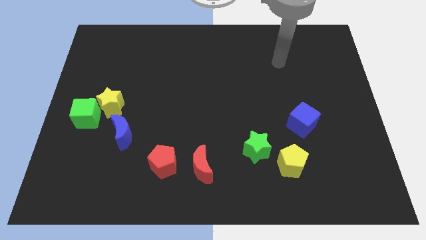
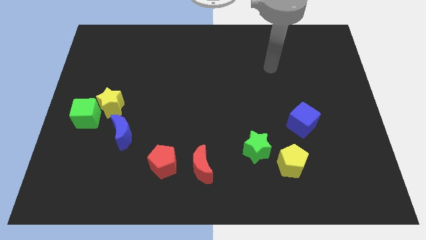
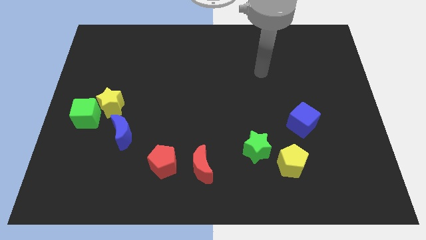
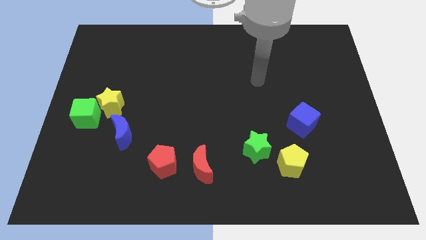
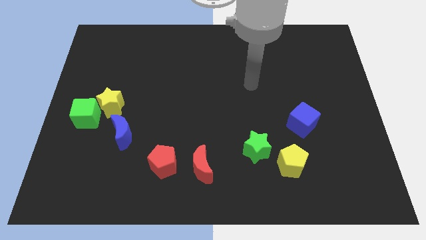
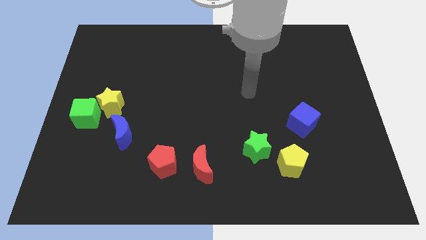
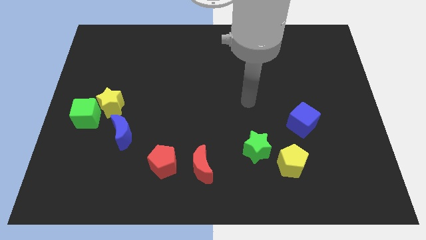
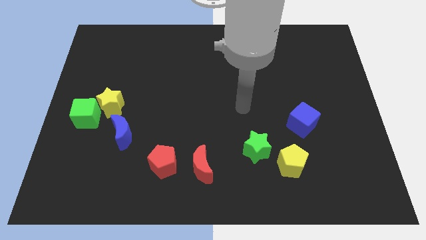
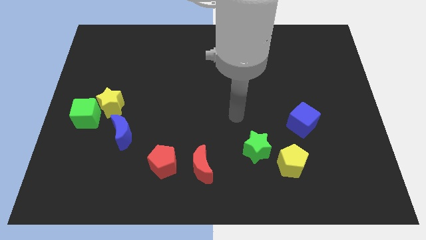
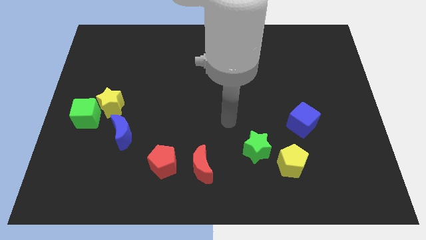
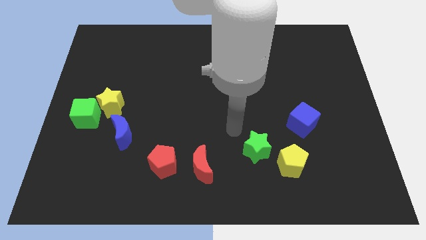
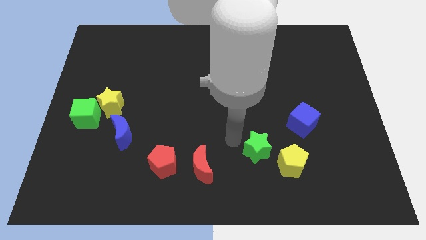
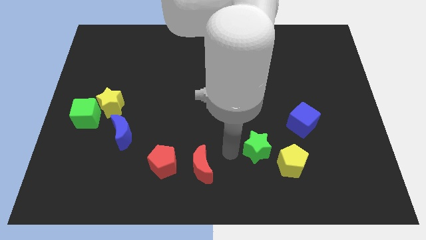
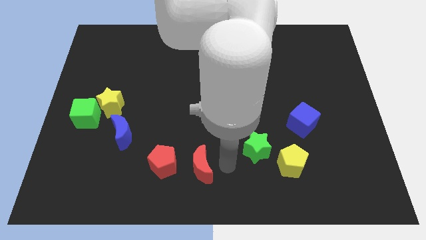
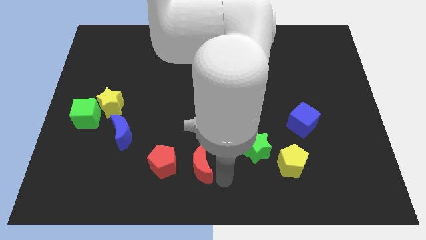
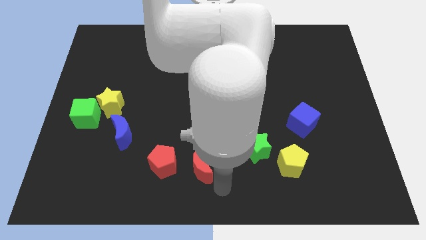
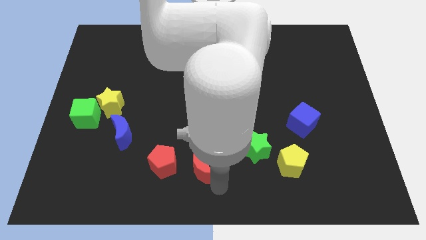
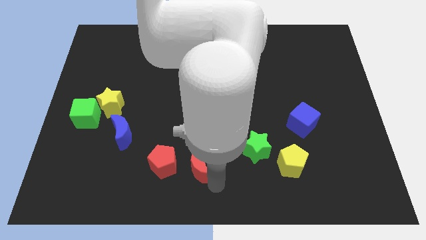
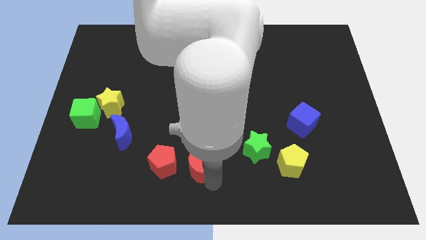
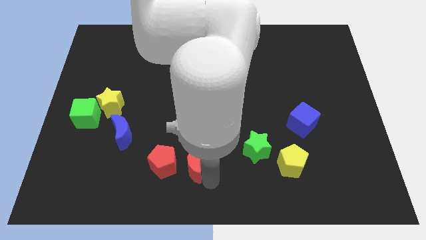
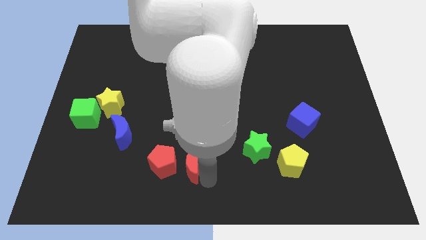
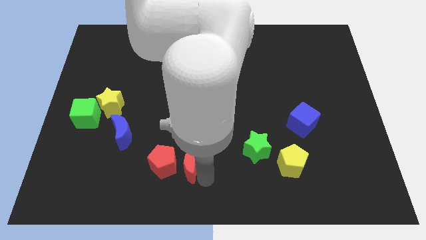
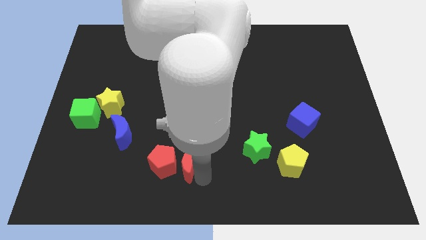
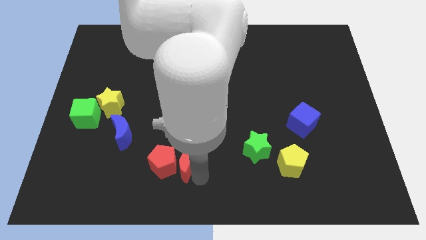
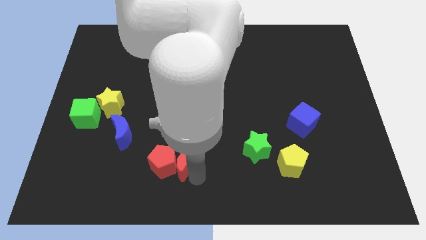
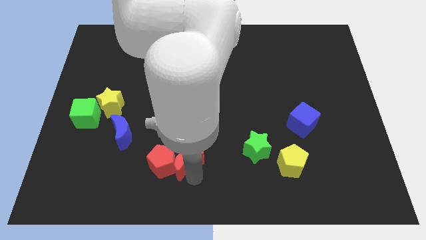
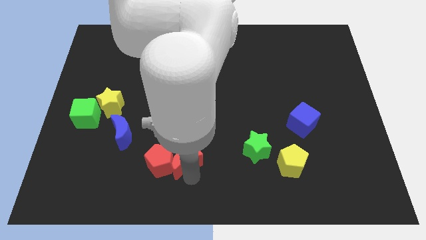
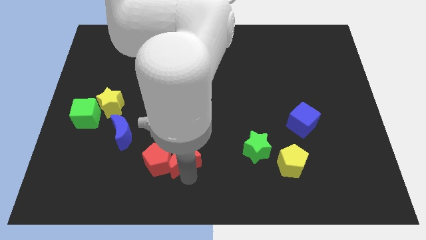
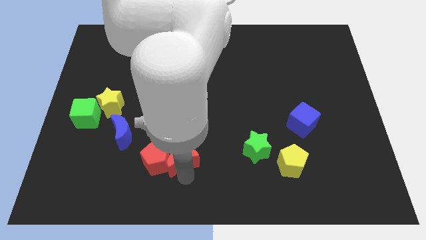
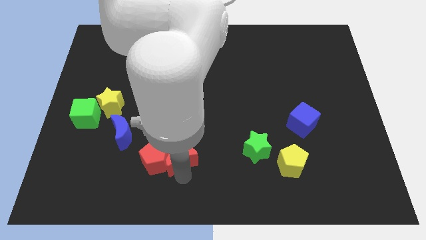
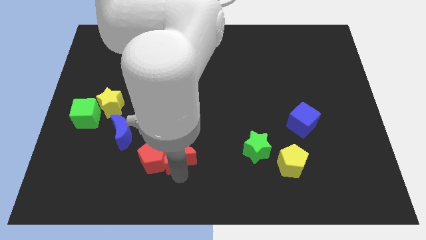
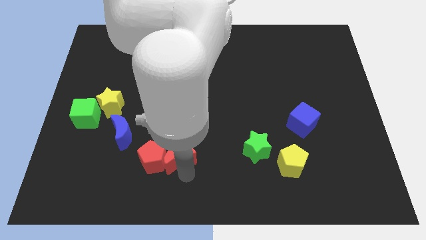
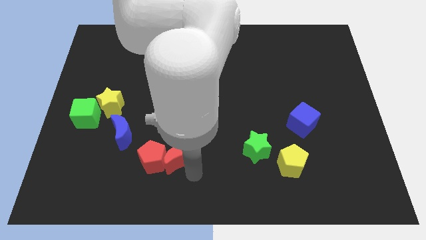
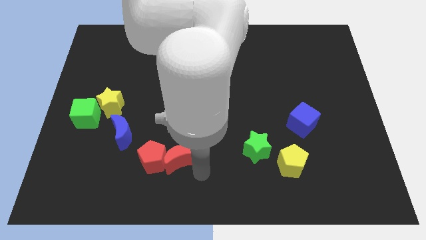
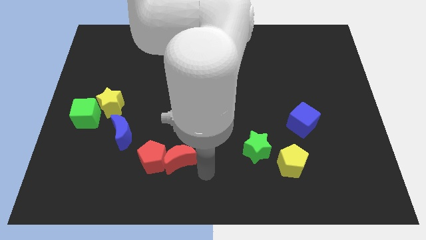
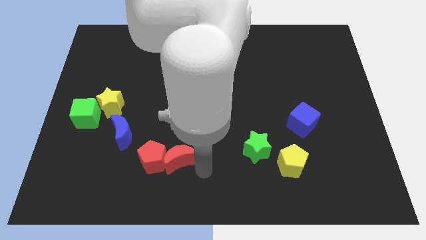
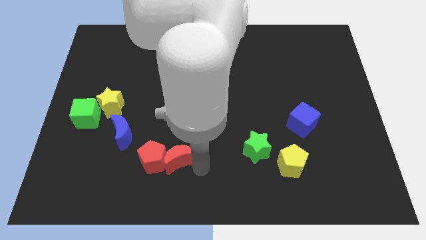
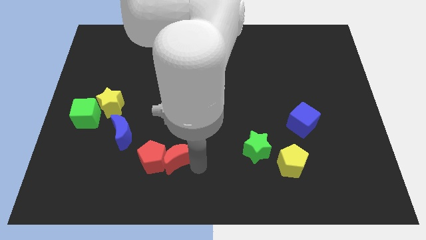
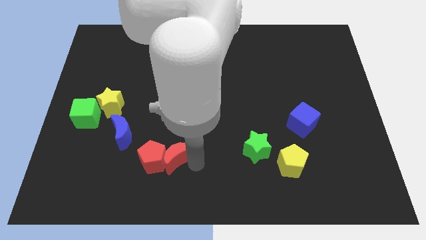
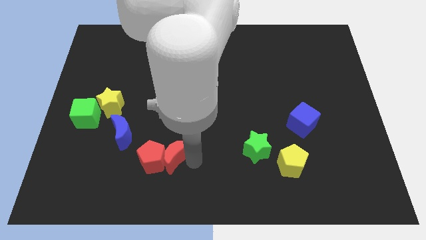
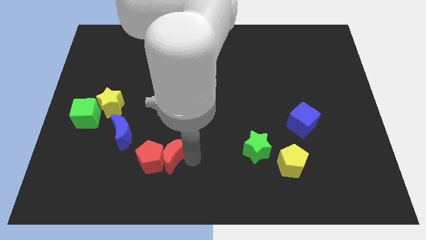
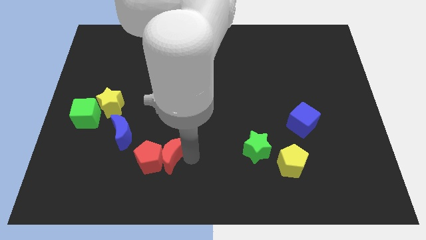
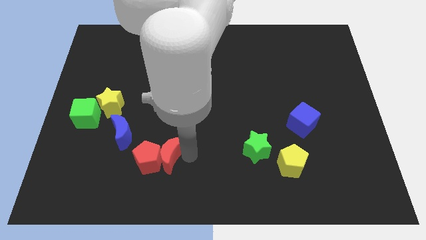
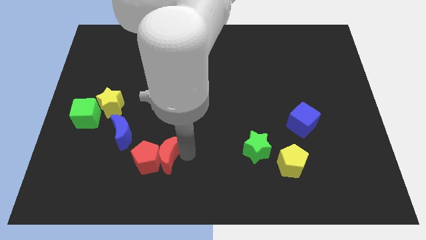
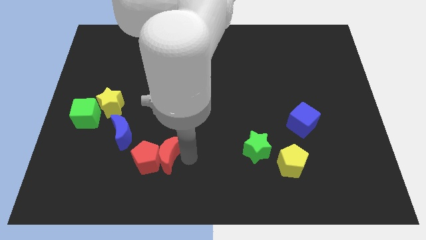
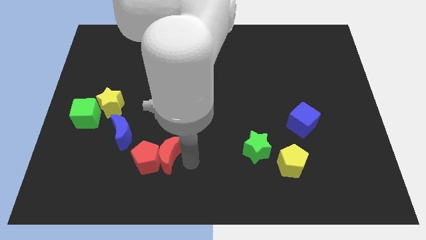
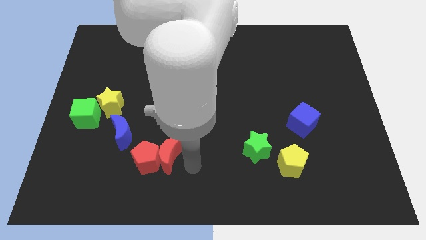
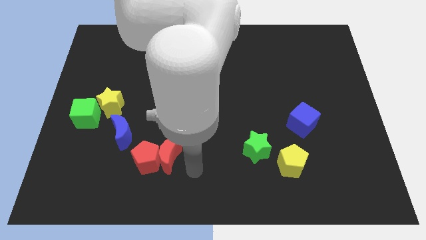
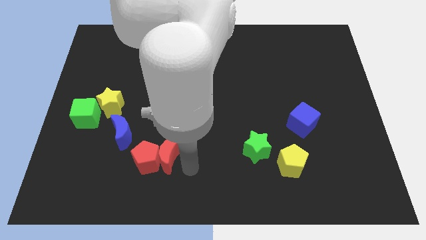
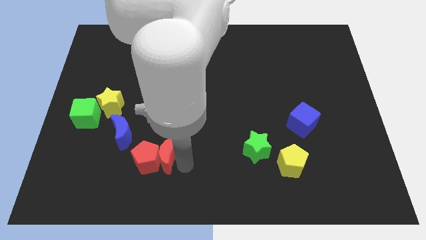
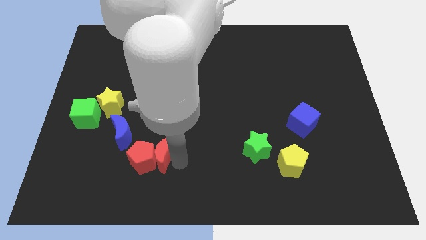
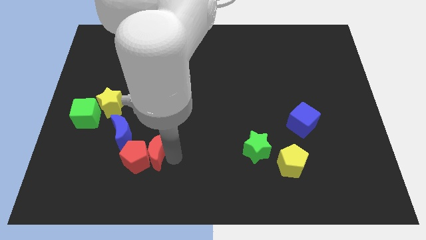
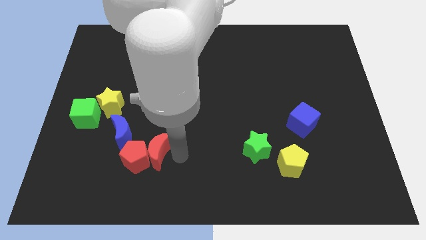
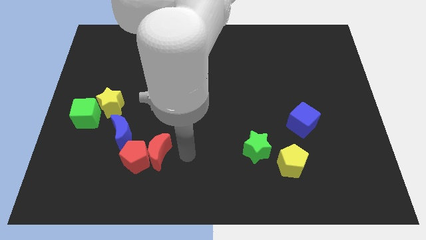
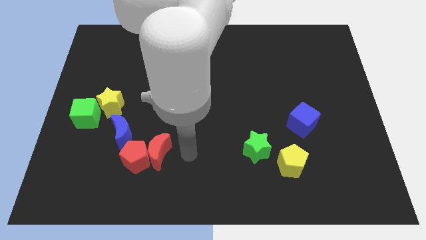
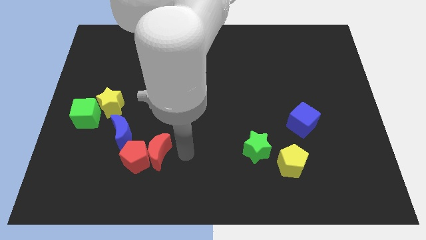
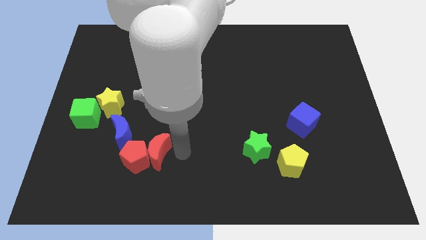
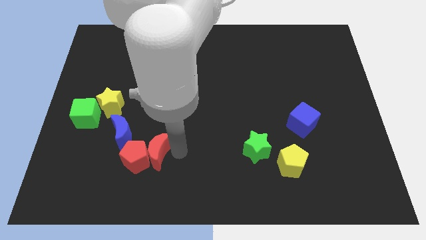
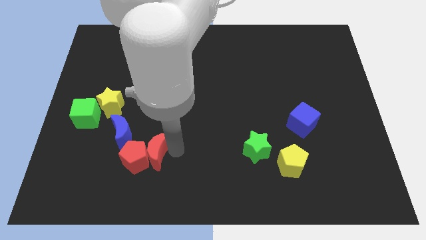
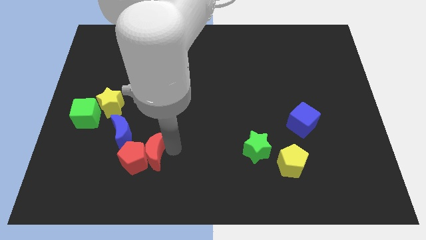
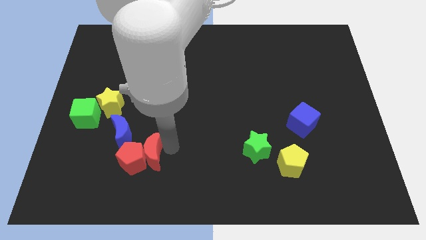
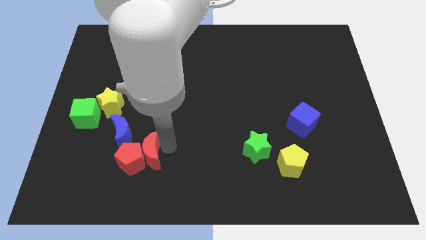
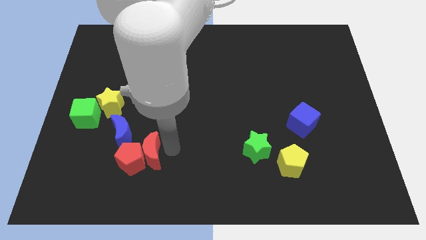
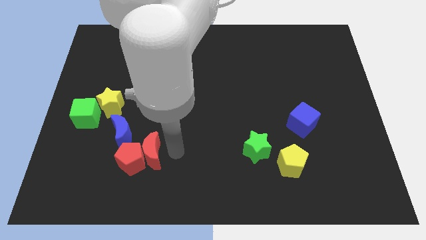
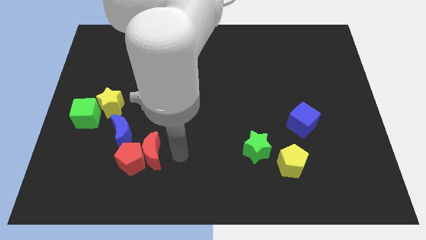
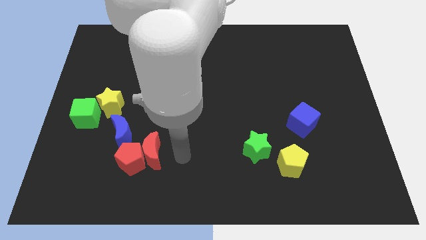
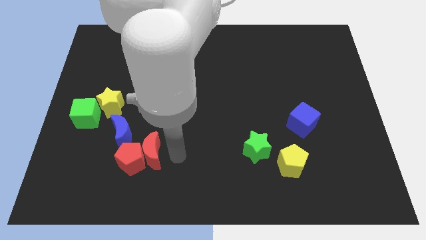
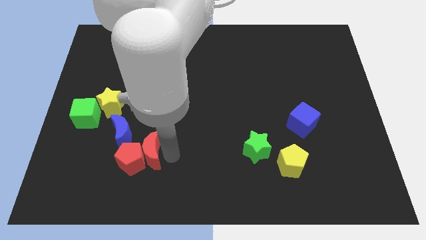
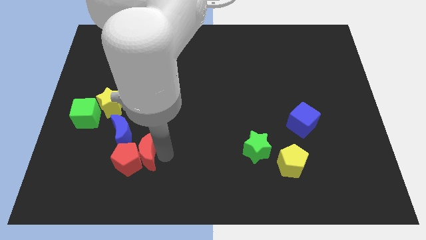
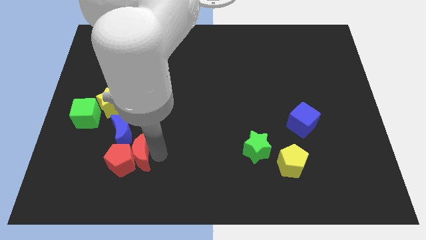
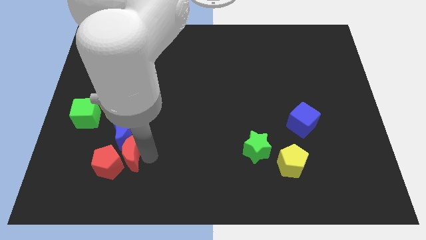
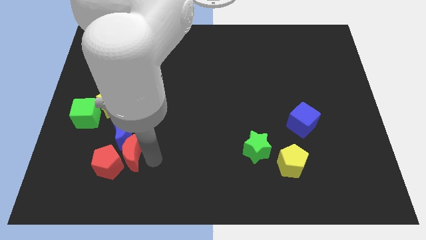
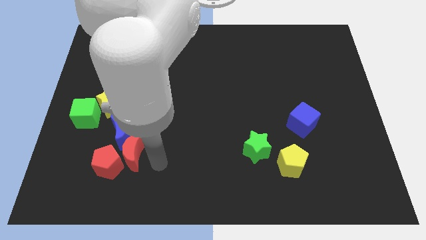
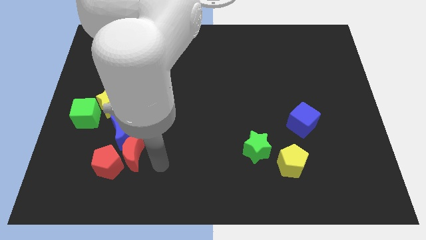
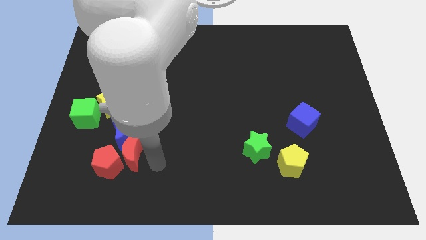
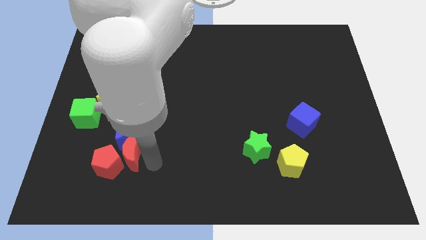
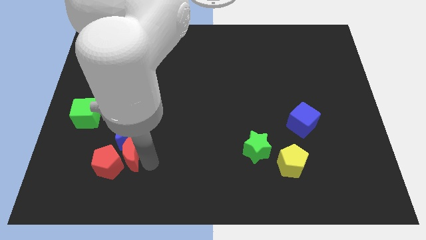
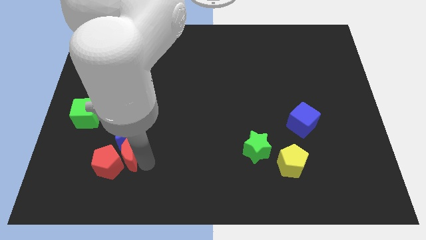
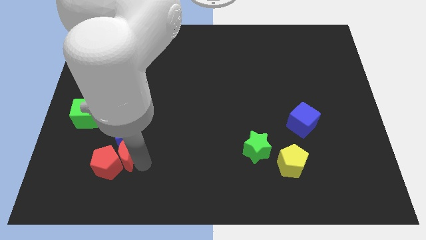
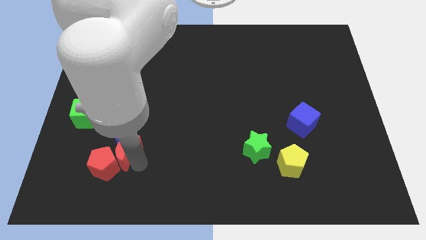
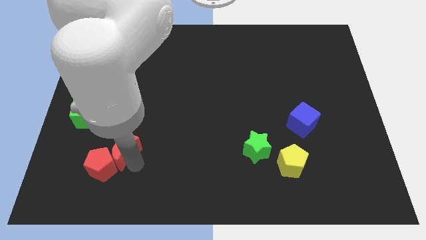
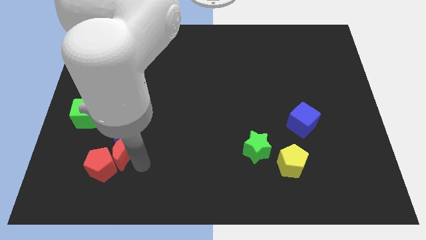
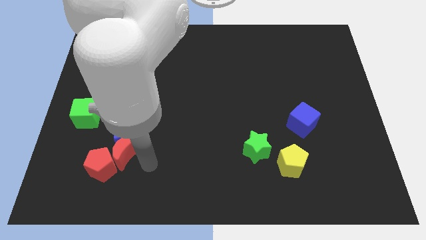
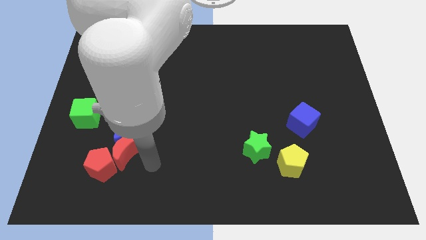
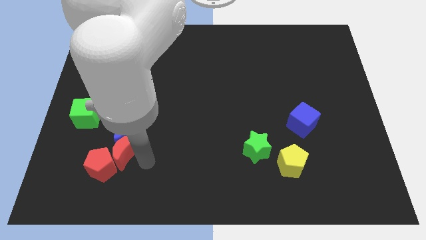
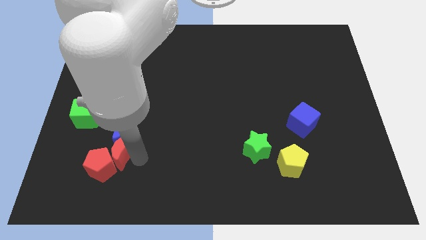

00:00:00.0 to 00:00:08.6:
put the red moon to the bottom side of the yellow star
